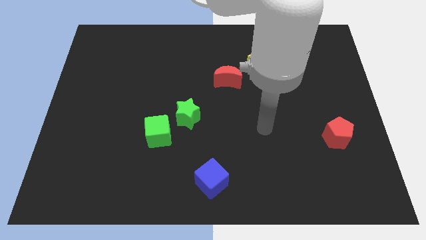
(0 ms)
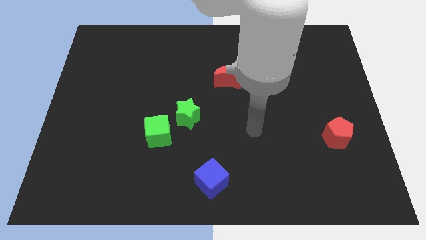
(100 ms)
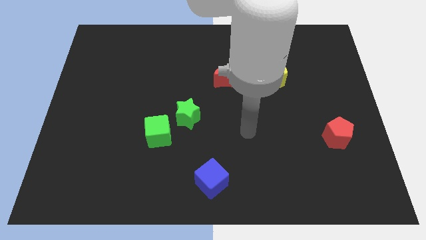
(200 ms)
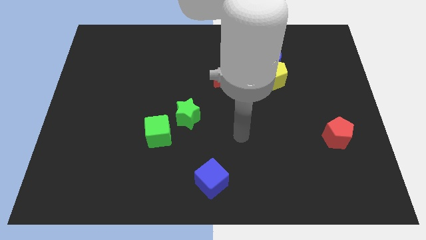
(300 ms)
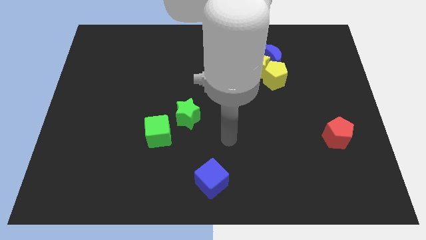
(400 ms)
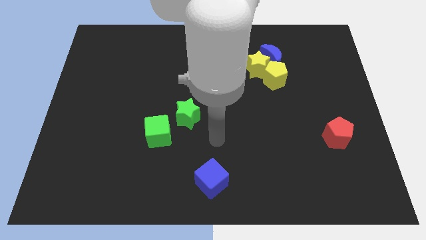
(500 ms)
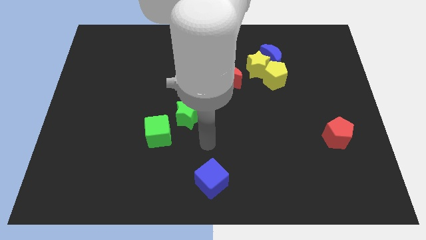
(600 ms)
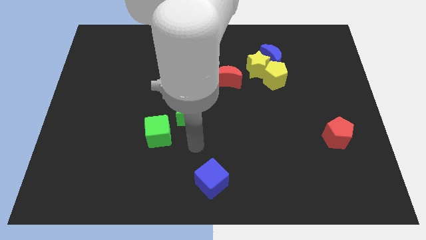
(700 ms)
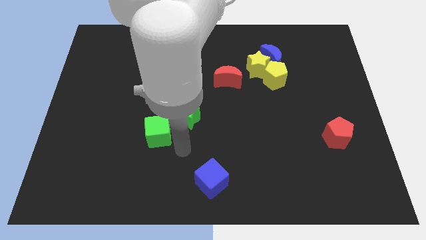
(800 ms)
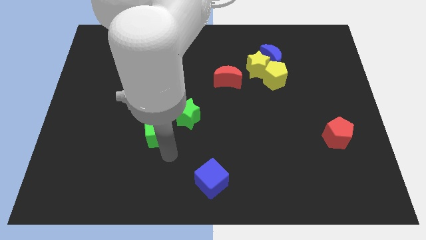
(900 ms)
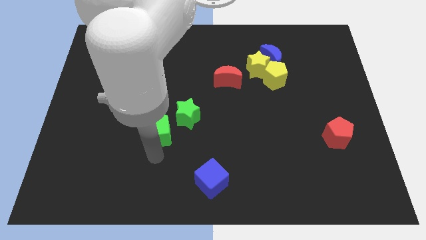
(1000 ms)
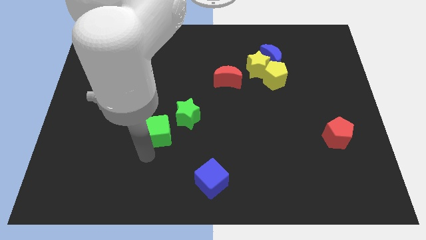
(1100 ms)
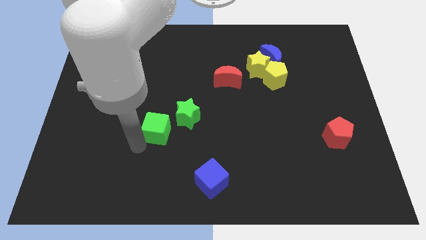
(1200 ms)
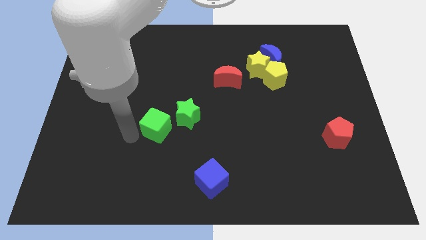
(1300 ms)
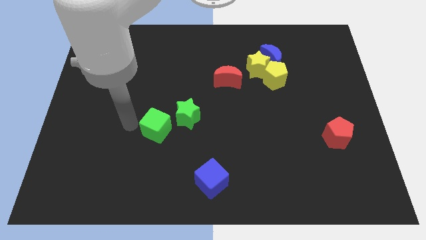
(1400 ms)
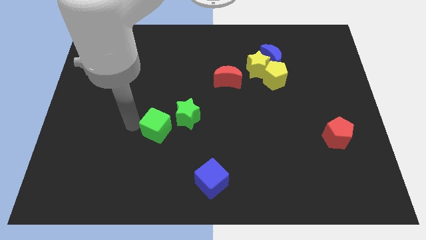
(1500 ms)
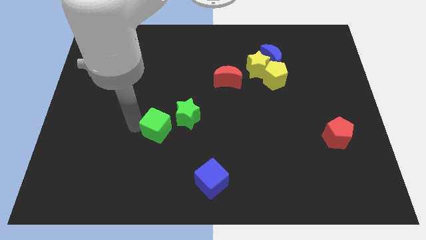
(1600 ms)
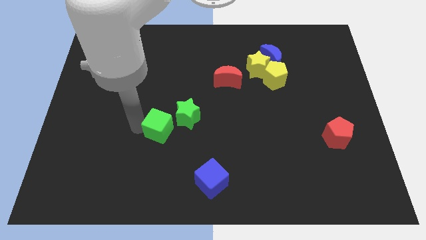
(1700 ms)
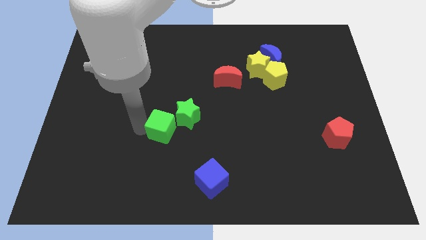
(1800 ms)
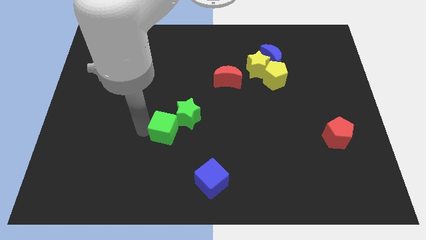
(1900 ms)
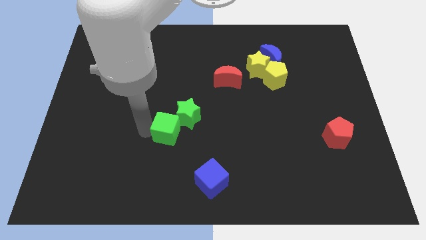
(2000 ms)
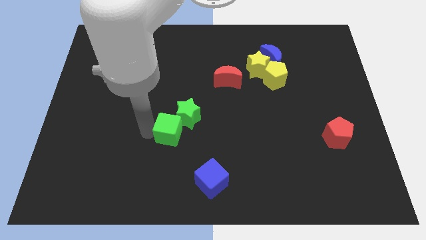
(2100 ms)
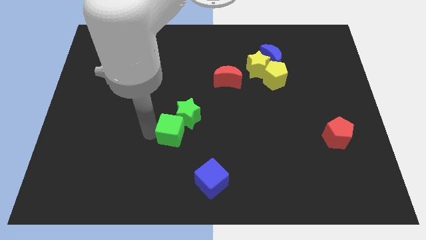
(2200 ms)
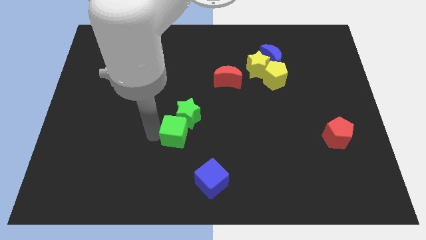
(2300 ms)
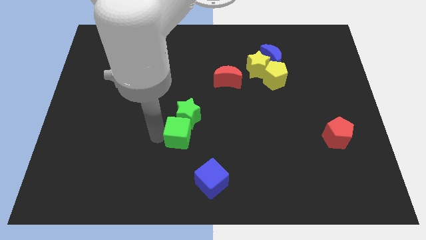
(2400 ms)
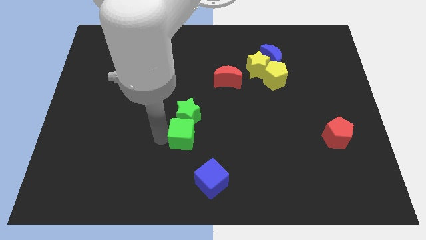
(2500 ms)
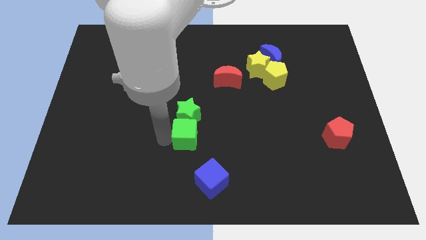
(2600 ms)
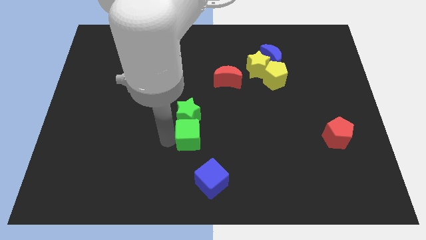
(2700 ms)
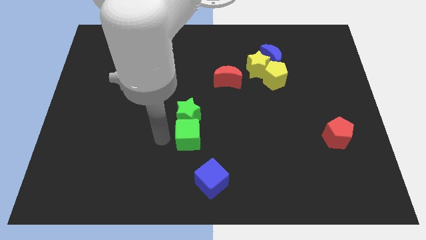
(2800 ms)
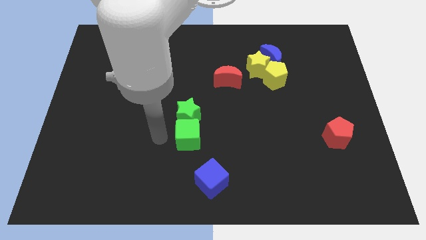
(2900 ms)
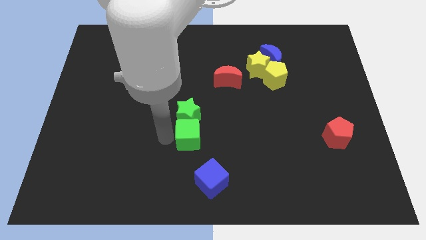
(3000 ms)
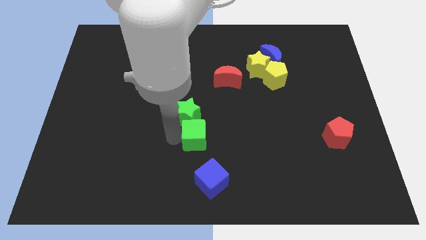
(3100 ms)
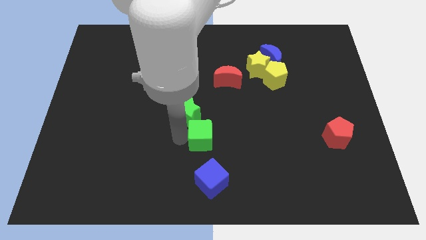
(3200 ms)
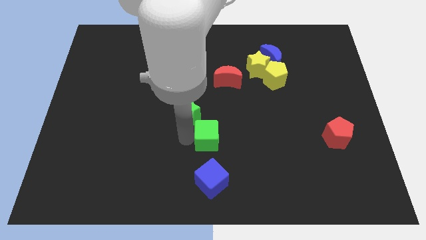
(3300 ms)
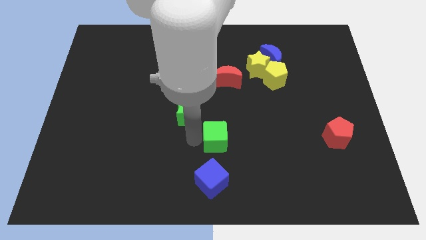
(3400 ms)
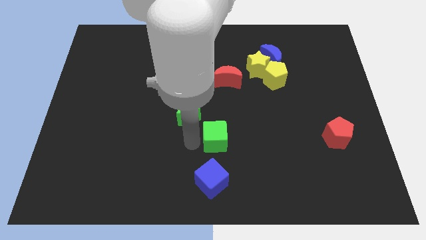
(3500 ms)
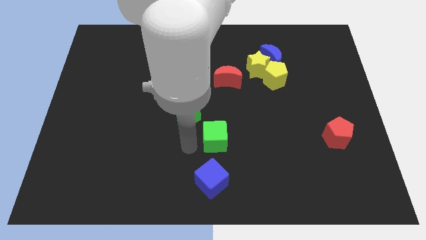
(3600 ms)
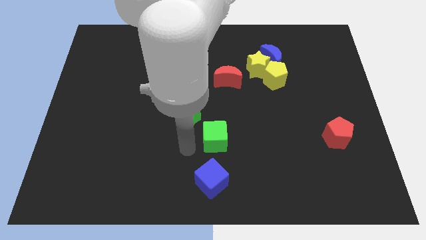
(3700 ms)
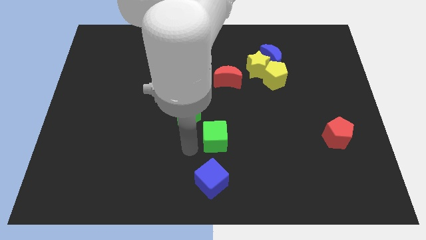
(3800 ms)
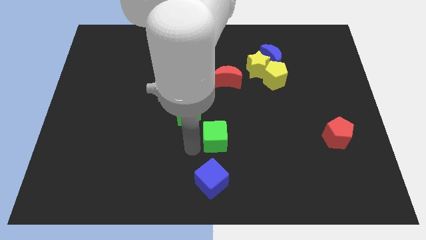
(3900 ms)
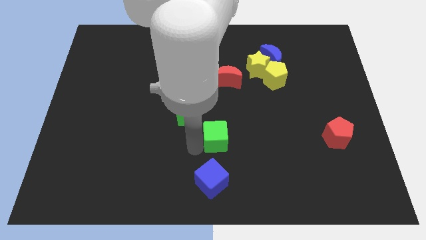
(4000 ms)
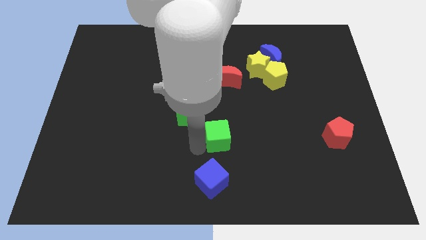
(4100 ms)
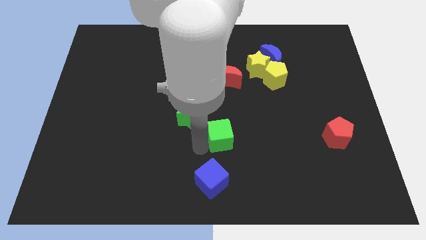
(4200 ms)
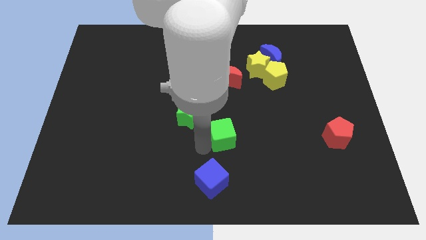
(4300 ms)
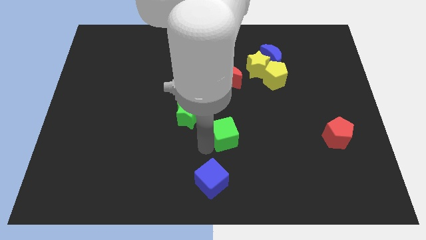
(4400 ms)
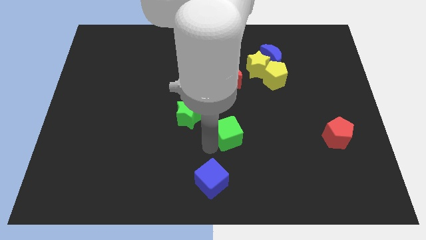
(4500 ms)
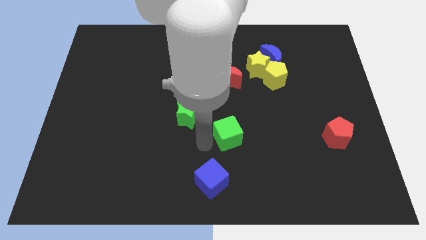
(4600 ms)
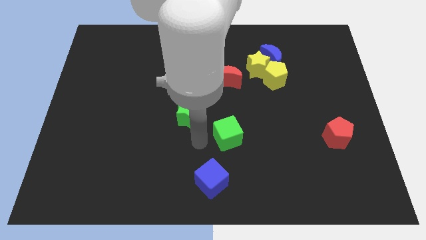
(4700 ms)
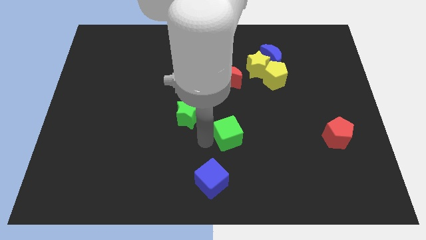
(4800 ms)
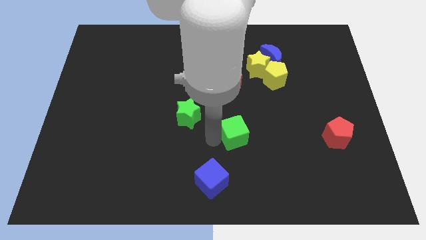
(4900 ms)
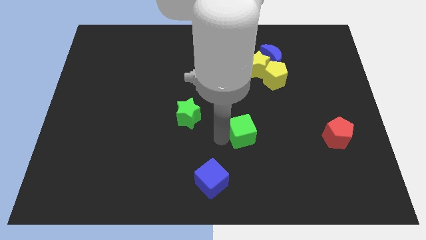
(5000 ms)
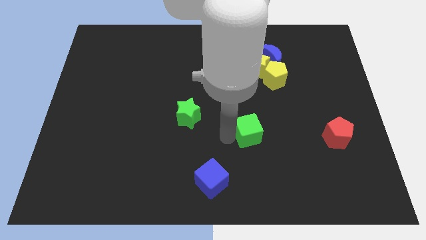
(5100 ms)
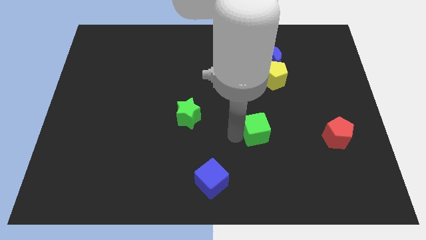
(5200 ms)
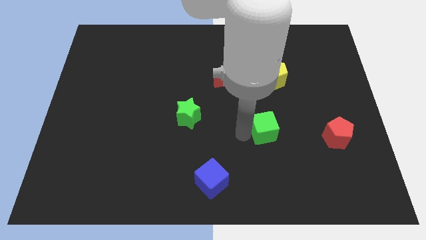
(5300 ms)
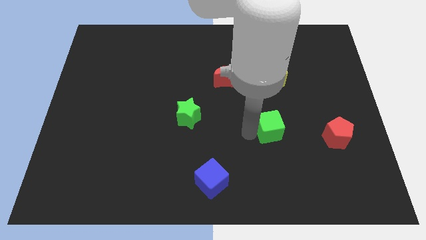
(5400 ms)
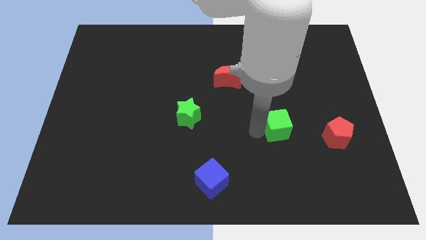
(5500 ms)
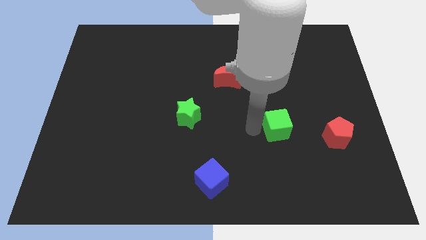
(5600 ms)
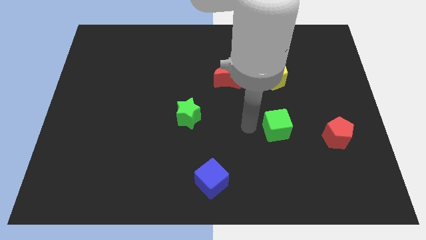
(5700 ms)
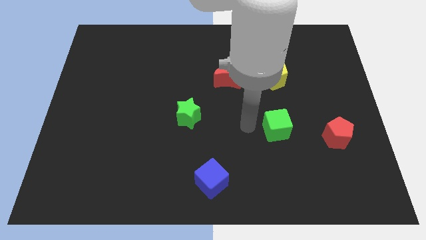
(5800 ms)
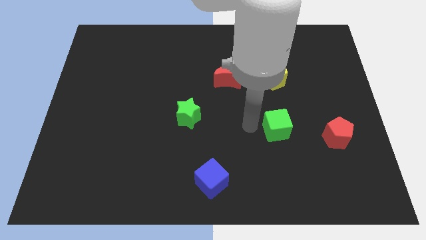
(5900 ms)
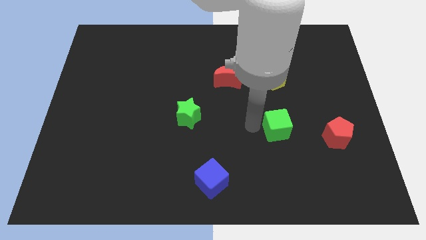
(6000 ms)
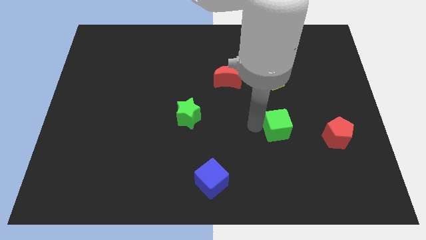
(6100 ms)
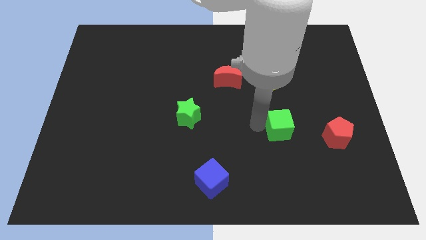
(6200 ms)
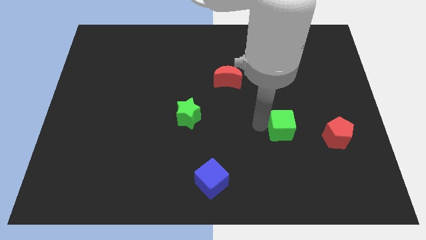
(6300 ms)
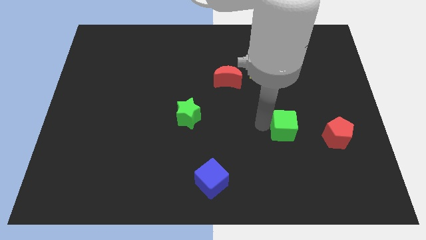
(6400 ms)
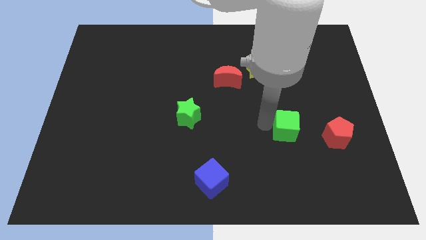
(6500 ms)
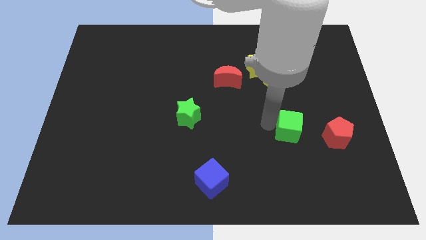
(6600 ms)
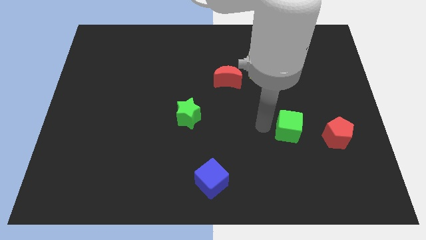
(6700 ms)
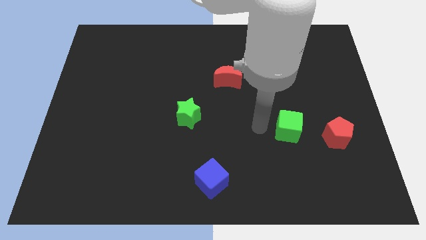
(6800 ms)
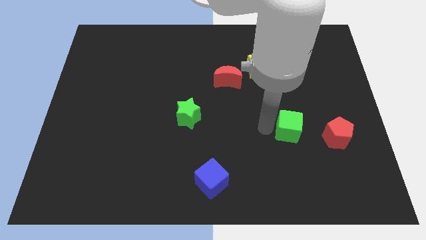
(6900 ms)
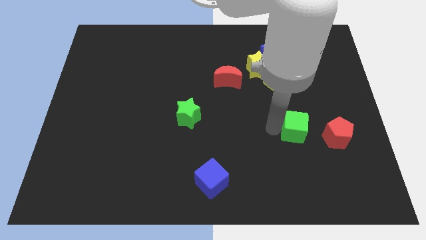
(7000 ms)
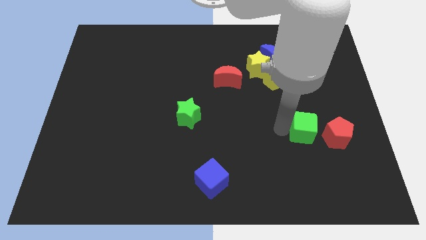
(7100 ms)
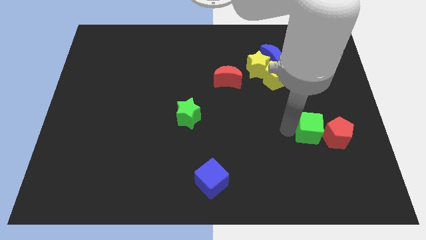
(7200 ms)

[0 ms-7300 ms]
push the green cube to the red pentagon

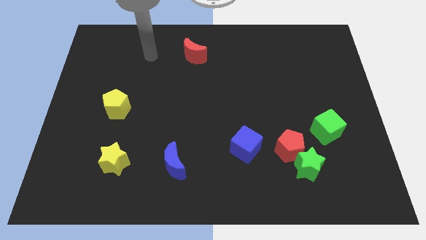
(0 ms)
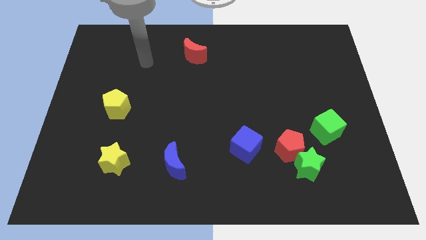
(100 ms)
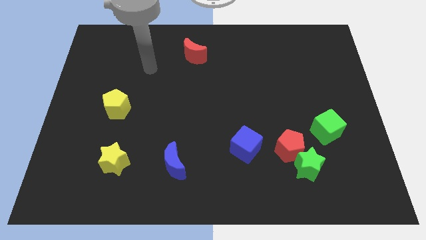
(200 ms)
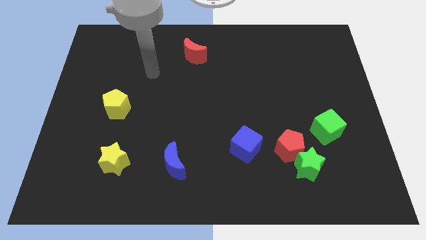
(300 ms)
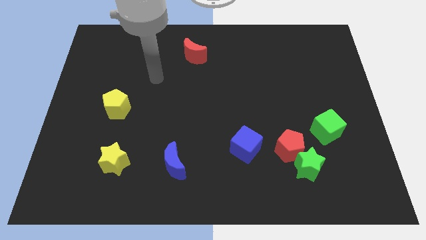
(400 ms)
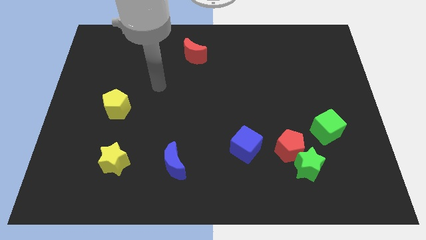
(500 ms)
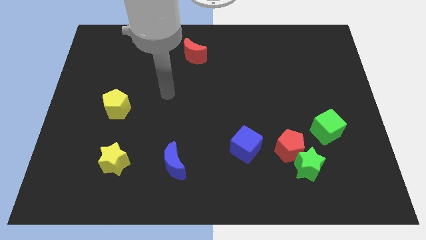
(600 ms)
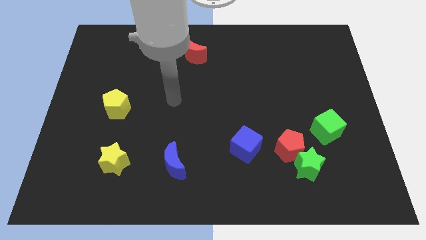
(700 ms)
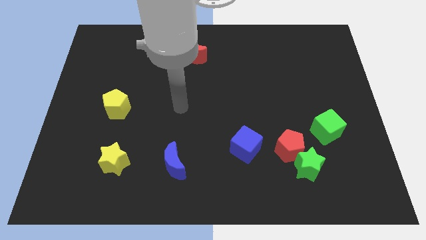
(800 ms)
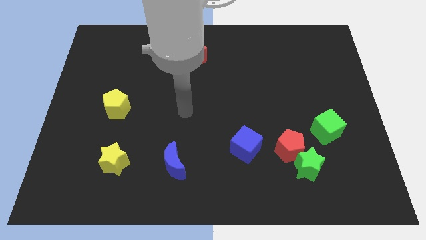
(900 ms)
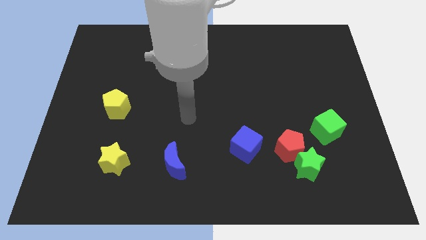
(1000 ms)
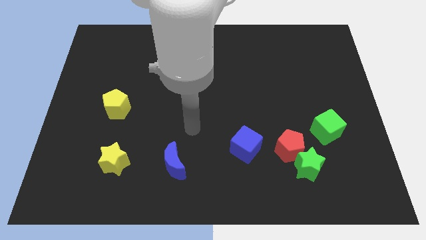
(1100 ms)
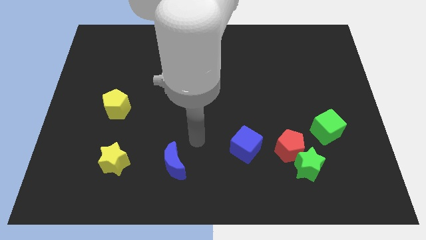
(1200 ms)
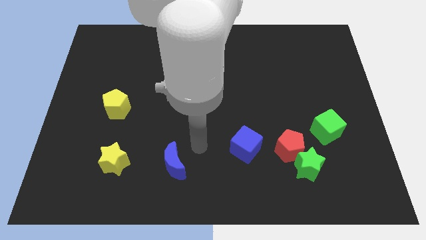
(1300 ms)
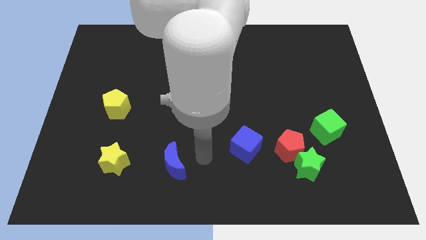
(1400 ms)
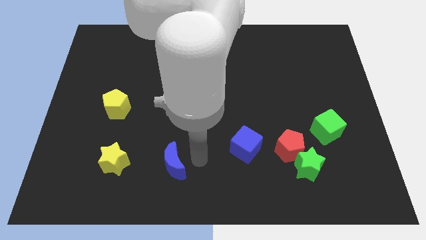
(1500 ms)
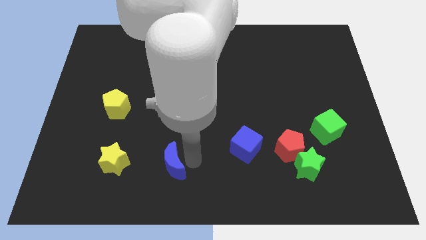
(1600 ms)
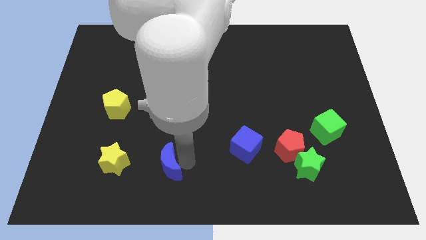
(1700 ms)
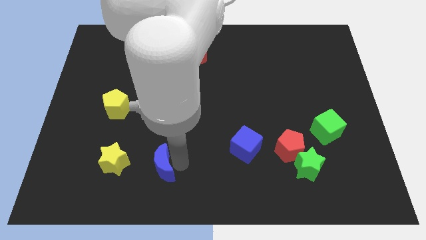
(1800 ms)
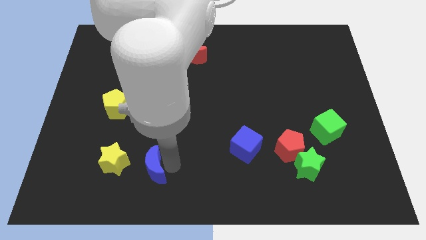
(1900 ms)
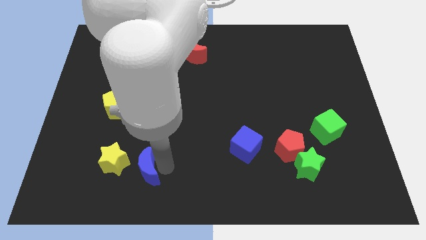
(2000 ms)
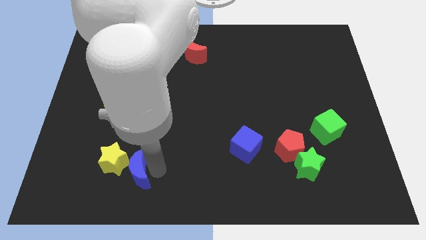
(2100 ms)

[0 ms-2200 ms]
slide the blue moon towards the yellow star
